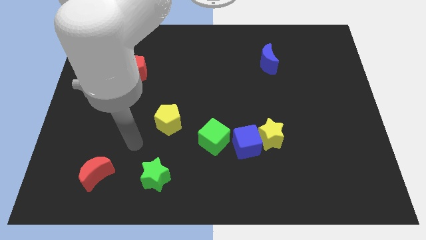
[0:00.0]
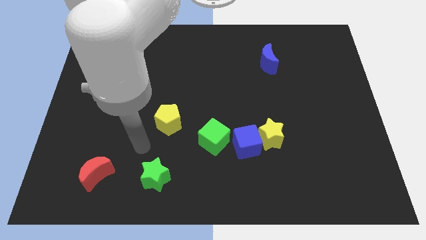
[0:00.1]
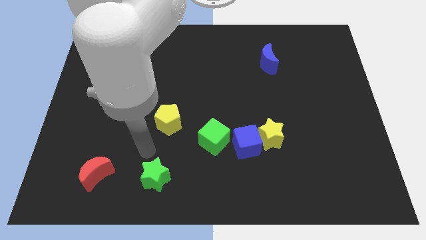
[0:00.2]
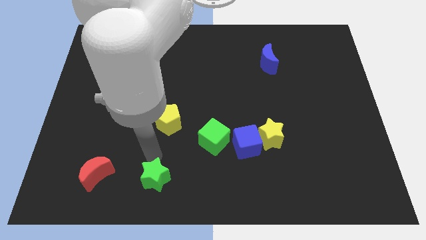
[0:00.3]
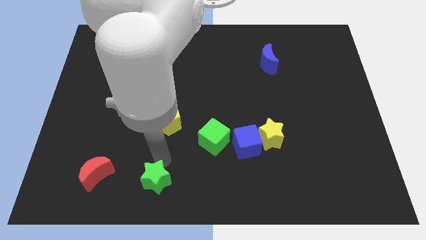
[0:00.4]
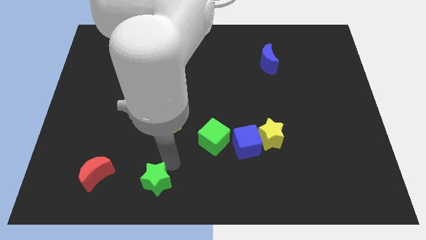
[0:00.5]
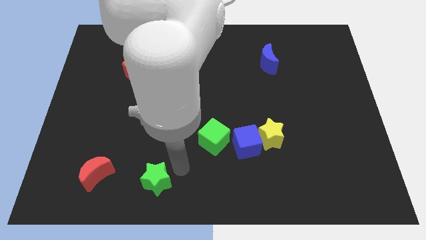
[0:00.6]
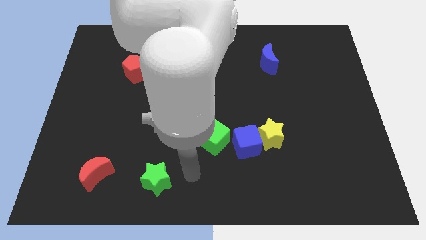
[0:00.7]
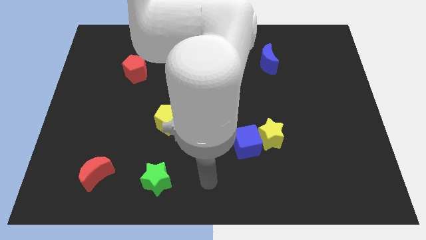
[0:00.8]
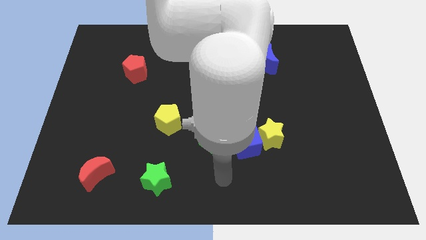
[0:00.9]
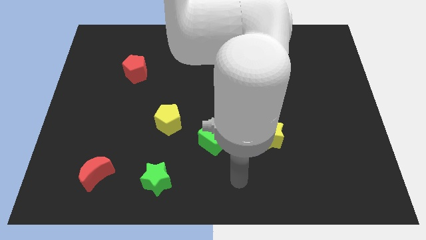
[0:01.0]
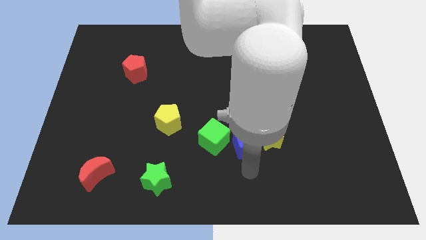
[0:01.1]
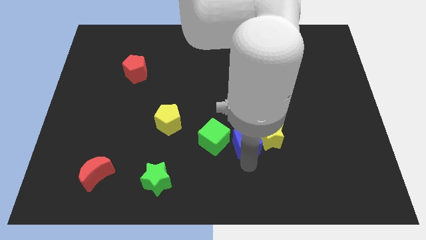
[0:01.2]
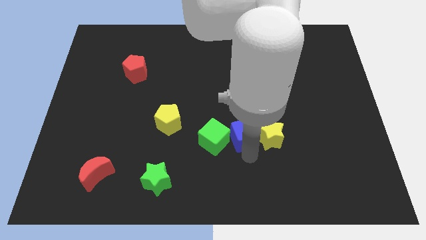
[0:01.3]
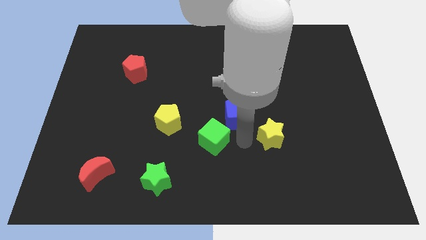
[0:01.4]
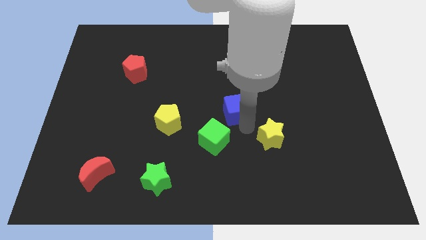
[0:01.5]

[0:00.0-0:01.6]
move the yellow star away from the blue cube

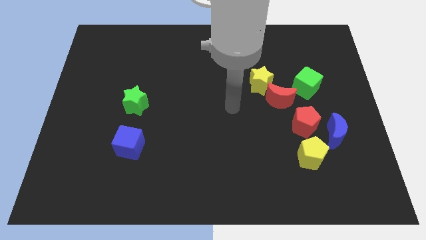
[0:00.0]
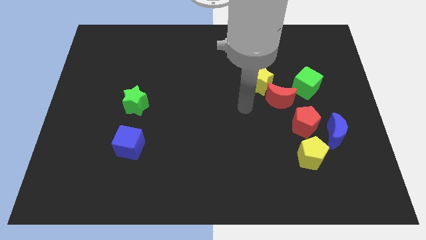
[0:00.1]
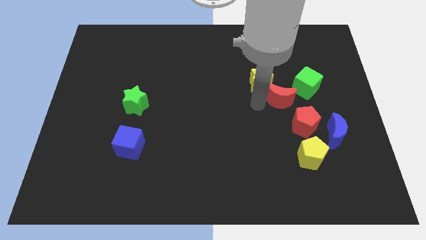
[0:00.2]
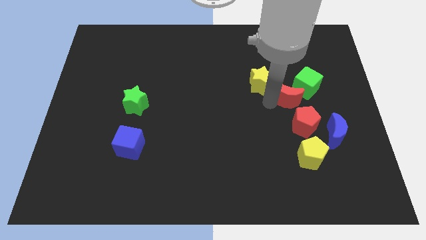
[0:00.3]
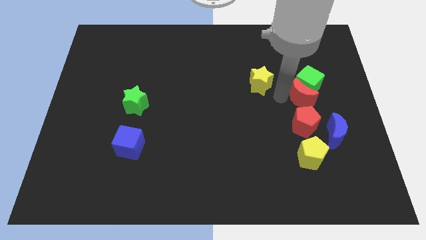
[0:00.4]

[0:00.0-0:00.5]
pull the yellow star apart from the red moon

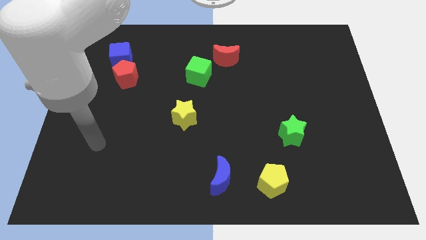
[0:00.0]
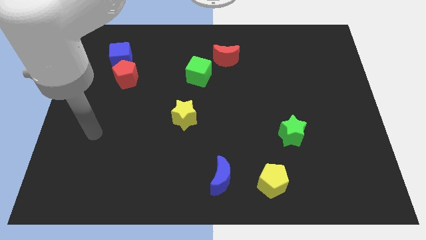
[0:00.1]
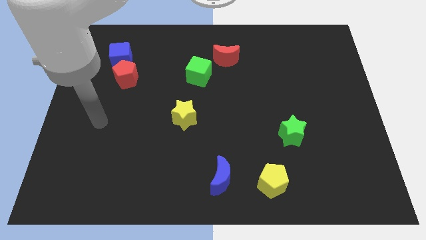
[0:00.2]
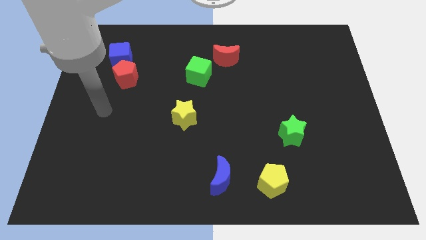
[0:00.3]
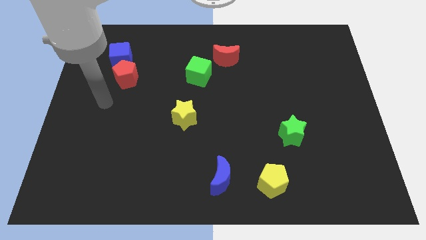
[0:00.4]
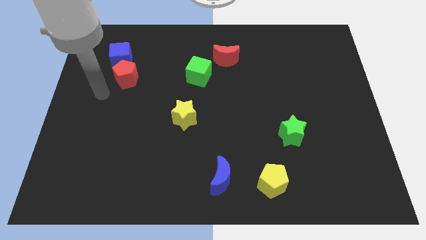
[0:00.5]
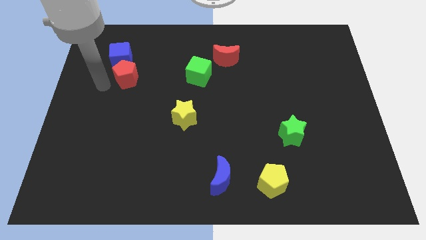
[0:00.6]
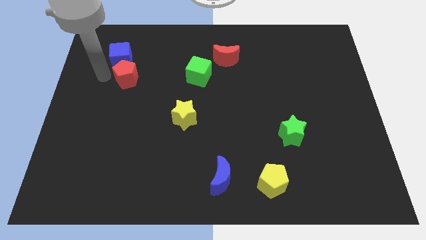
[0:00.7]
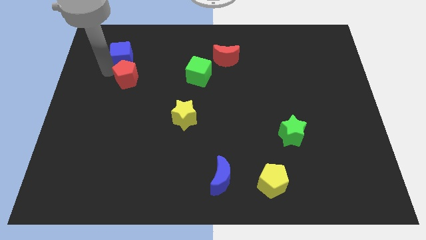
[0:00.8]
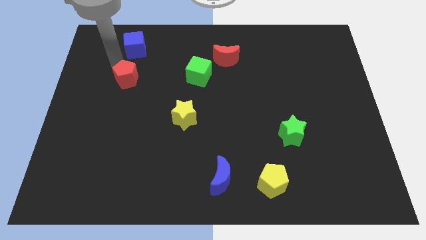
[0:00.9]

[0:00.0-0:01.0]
separate the red pentagon from the blue cube

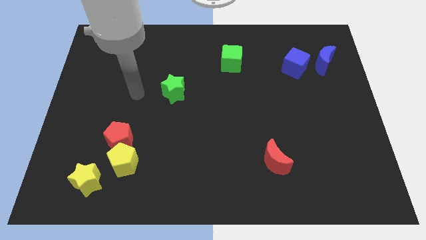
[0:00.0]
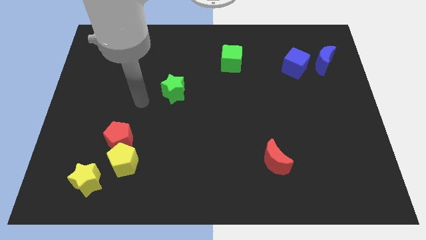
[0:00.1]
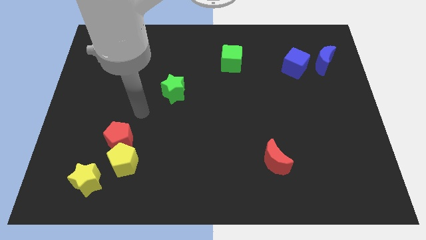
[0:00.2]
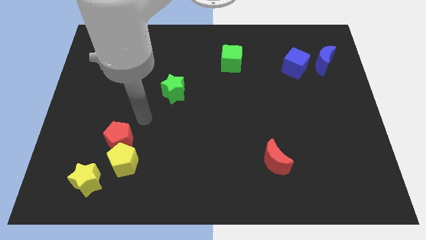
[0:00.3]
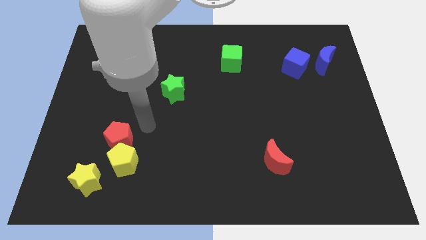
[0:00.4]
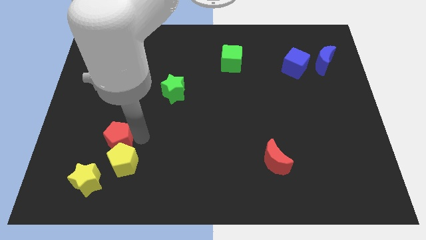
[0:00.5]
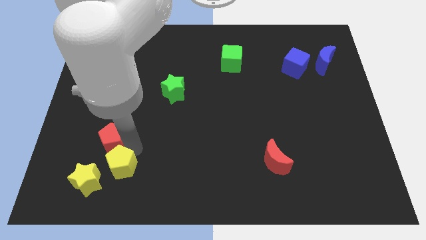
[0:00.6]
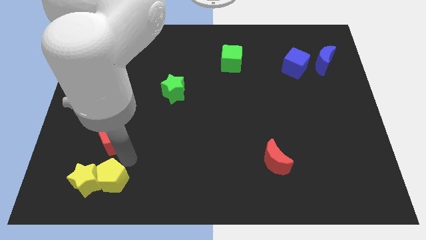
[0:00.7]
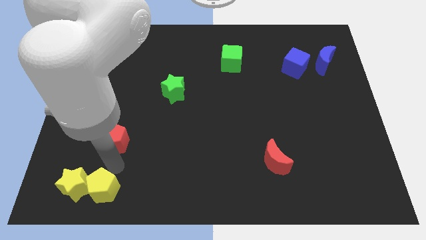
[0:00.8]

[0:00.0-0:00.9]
move the red pentagon away from the yellow pentagon

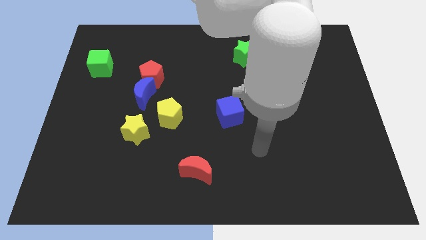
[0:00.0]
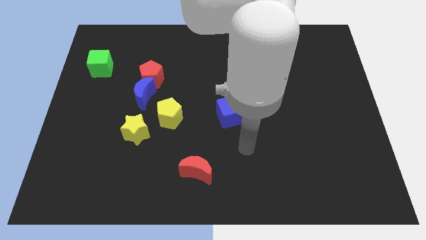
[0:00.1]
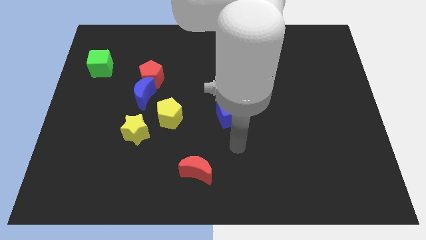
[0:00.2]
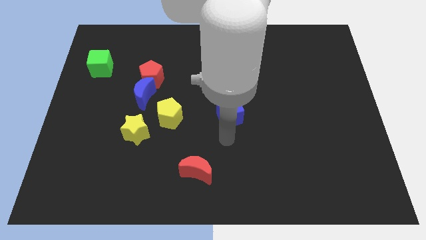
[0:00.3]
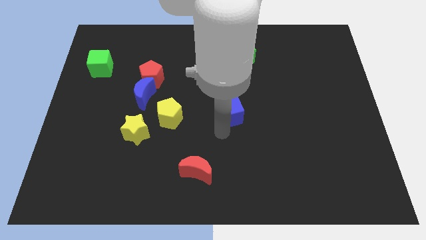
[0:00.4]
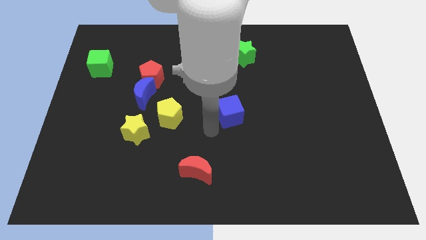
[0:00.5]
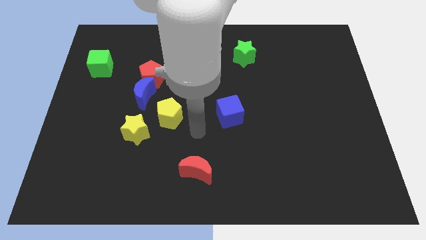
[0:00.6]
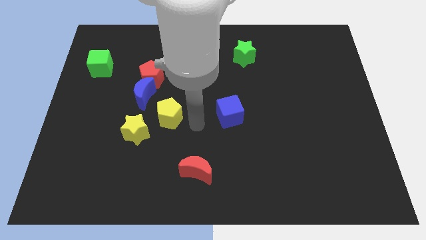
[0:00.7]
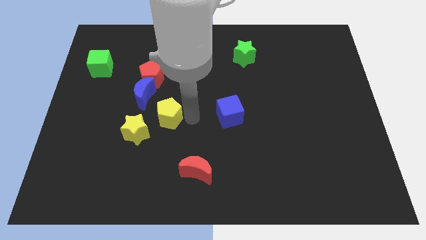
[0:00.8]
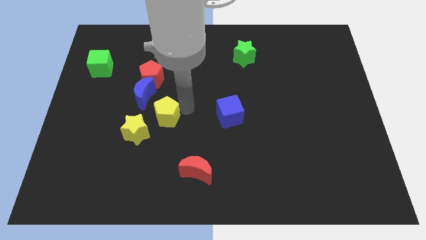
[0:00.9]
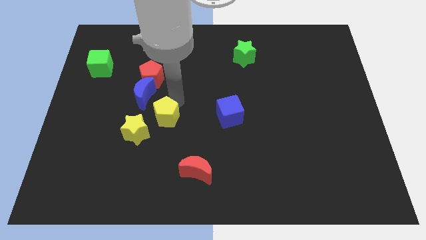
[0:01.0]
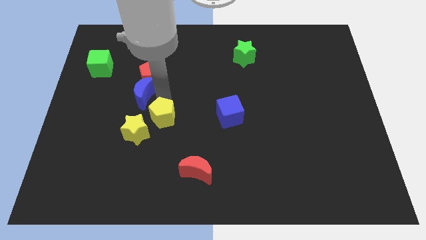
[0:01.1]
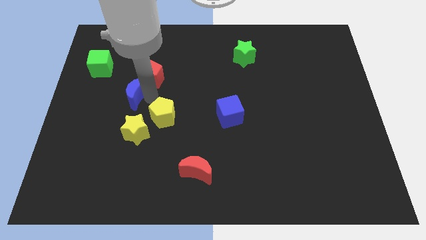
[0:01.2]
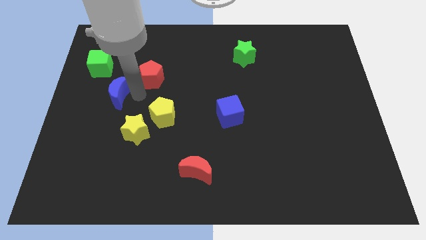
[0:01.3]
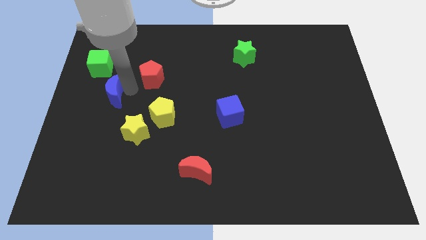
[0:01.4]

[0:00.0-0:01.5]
move the red pentagon away from the blue moon

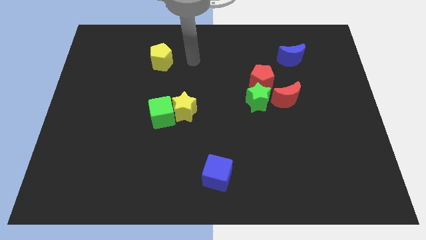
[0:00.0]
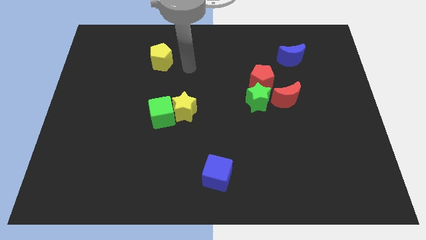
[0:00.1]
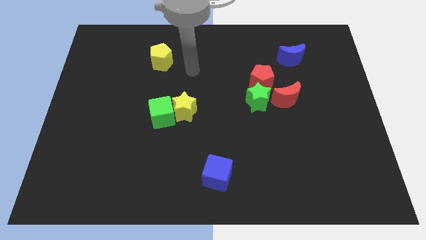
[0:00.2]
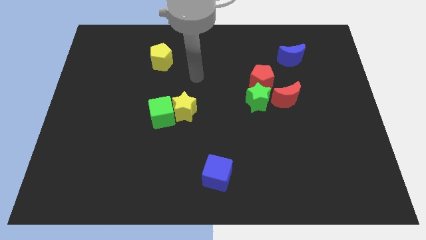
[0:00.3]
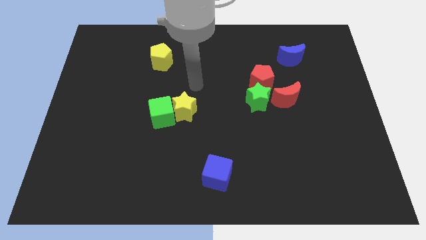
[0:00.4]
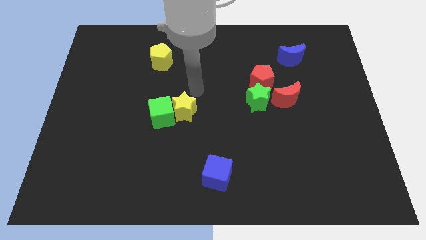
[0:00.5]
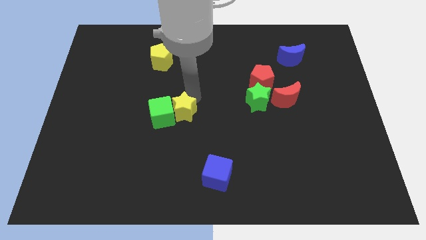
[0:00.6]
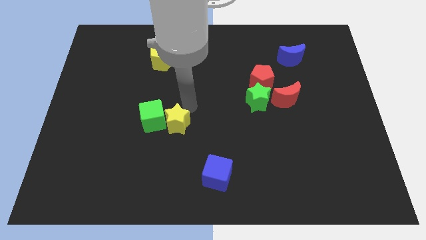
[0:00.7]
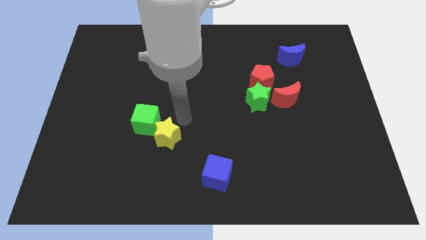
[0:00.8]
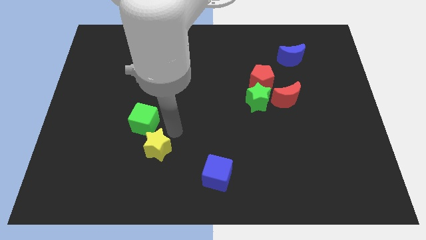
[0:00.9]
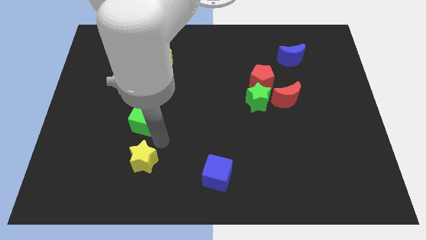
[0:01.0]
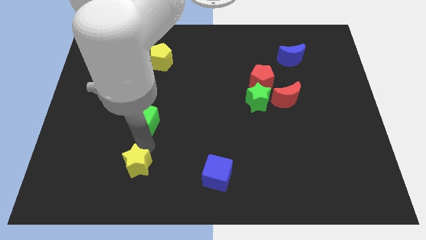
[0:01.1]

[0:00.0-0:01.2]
move the green cube away from the yellow star

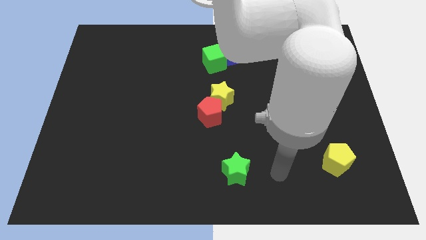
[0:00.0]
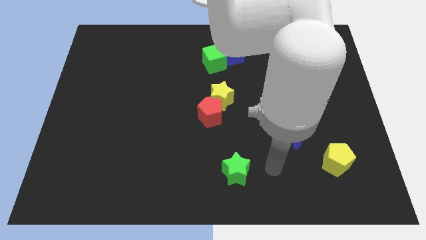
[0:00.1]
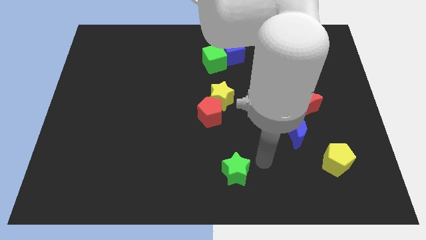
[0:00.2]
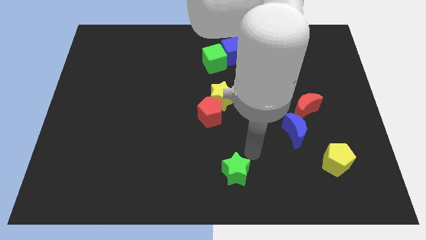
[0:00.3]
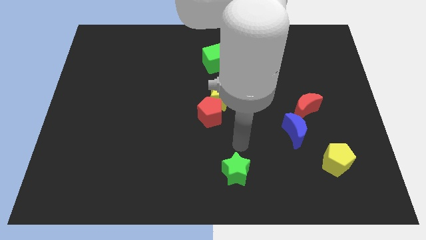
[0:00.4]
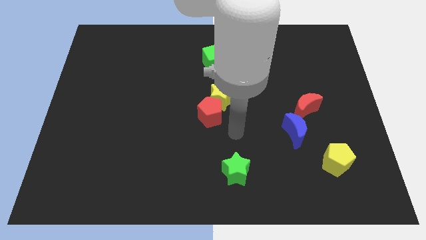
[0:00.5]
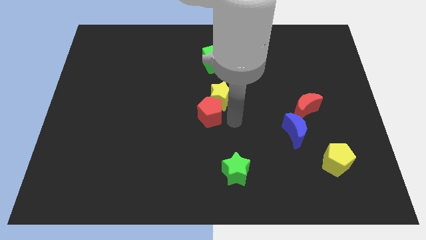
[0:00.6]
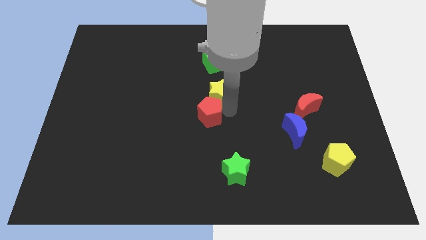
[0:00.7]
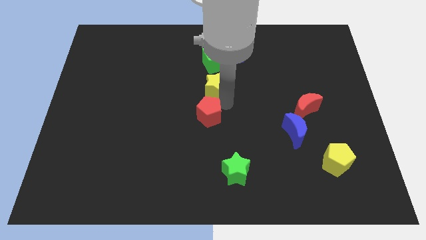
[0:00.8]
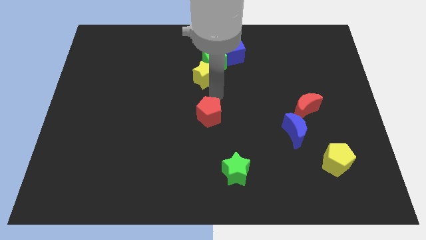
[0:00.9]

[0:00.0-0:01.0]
separate the red pentagon from the yellow star

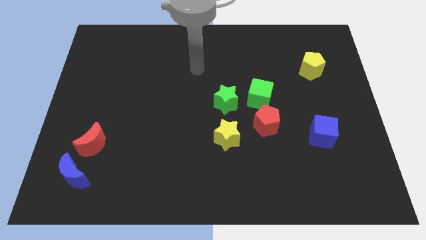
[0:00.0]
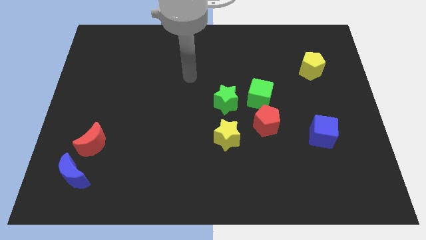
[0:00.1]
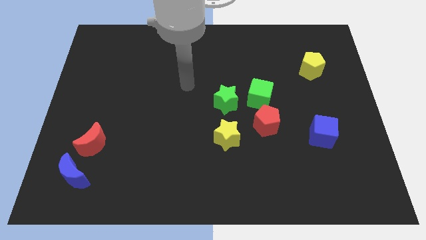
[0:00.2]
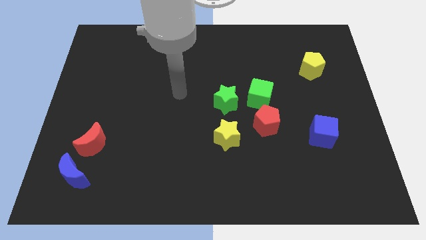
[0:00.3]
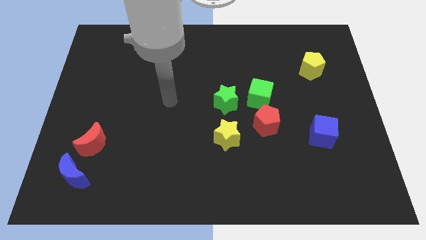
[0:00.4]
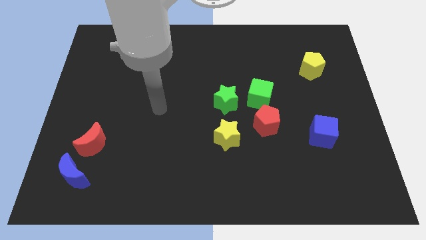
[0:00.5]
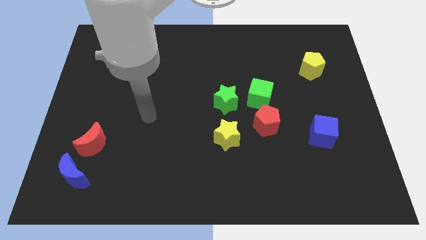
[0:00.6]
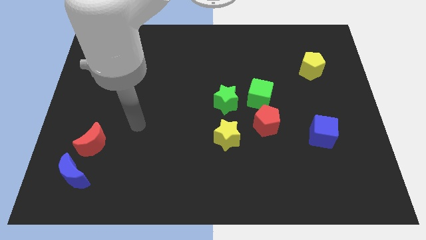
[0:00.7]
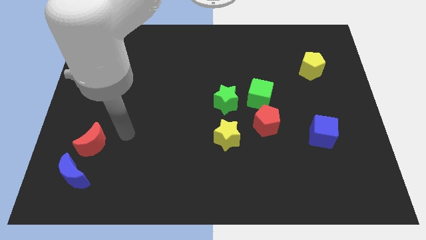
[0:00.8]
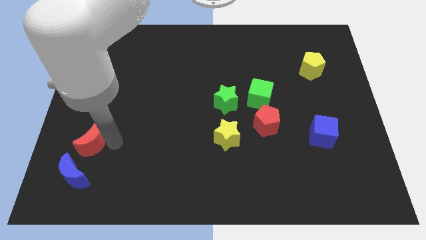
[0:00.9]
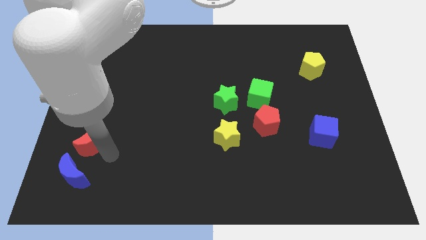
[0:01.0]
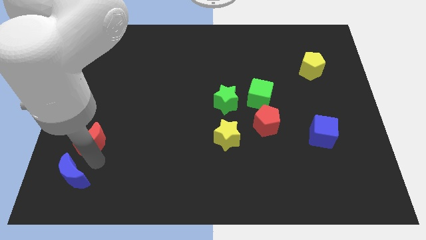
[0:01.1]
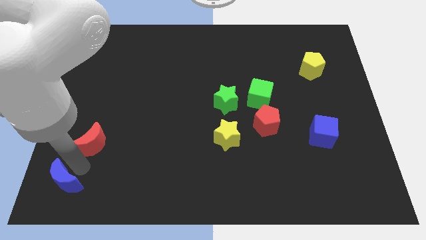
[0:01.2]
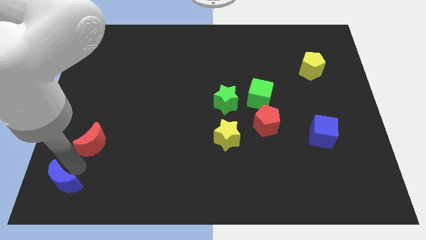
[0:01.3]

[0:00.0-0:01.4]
move the red moon away from the blue moon

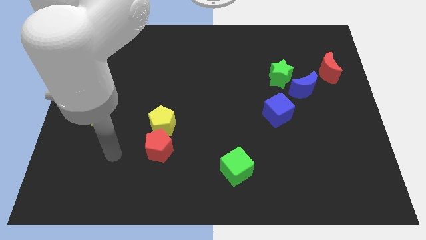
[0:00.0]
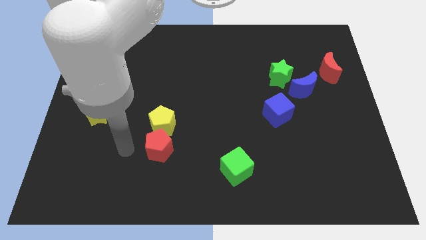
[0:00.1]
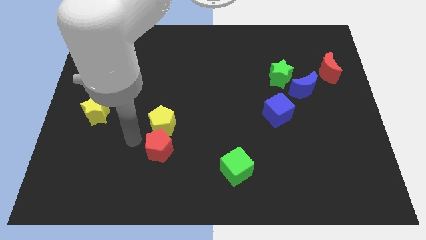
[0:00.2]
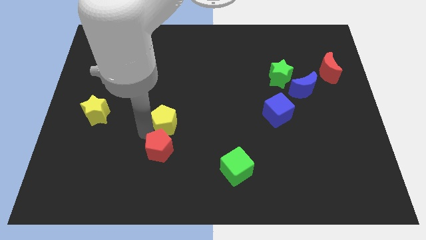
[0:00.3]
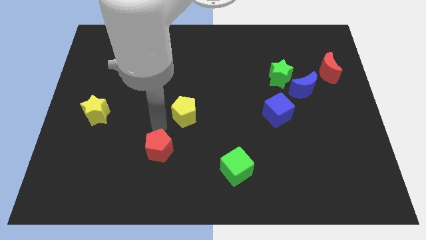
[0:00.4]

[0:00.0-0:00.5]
pull the red pentagon apart from the yellow pentagon
